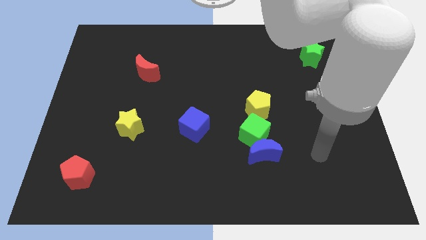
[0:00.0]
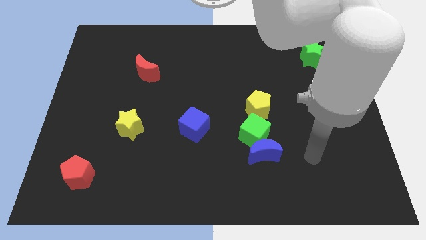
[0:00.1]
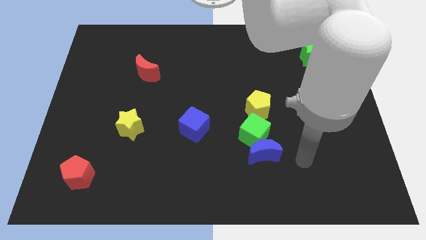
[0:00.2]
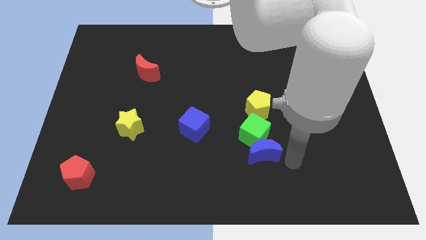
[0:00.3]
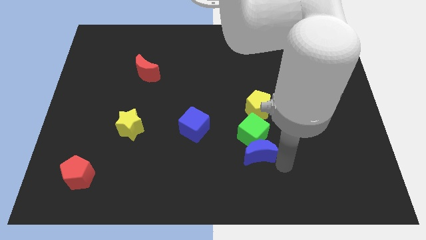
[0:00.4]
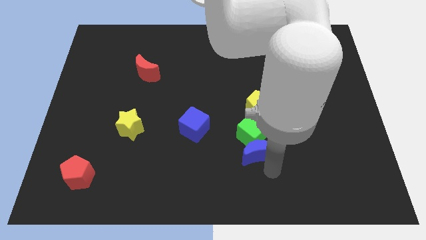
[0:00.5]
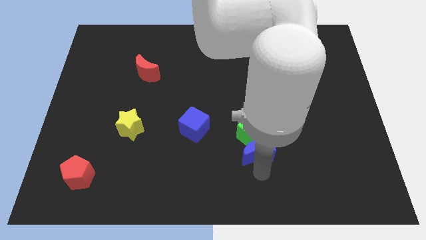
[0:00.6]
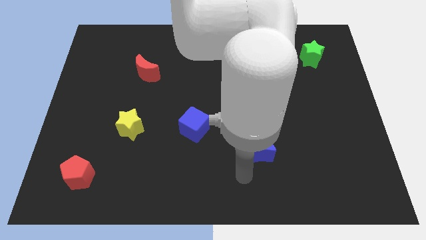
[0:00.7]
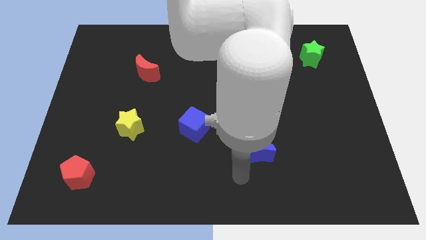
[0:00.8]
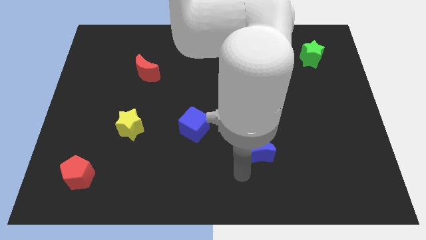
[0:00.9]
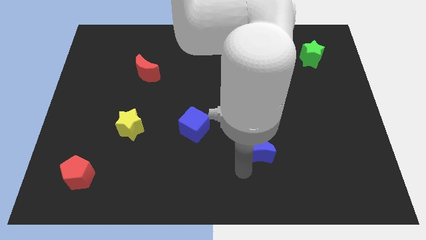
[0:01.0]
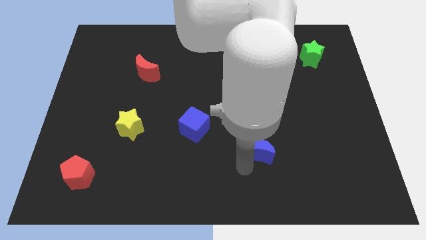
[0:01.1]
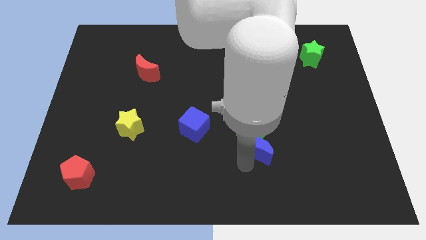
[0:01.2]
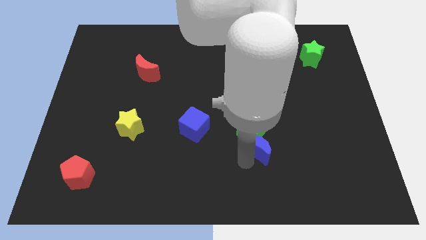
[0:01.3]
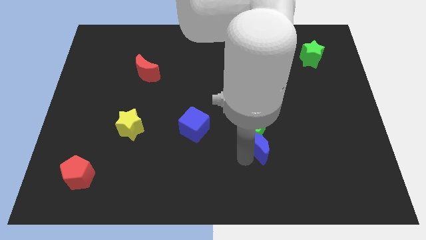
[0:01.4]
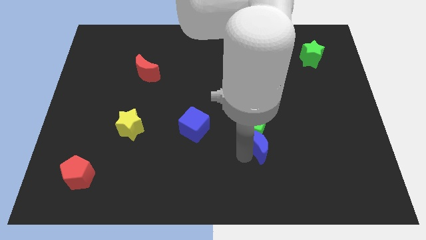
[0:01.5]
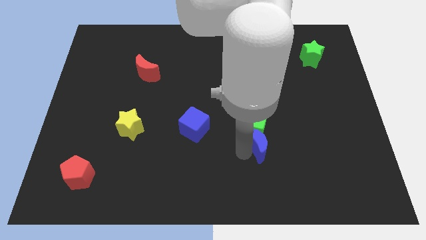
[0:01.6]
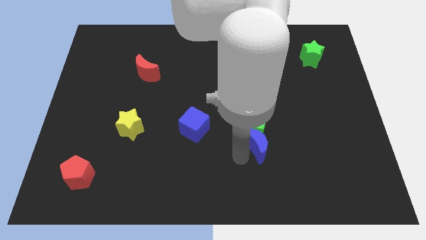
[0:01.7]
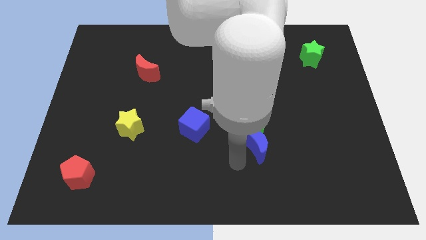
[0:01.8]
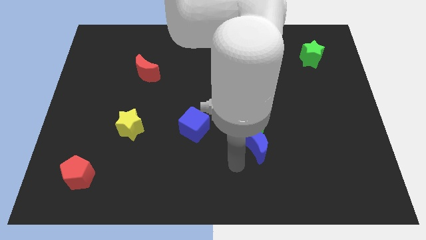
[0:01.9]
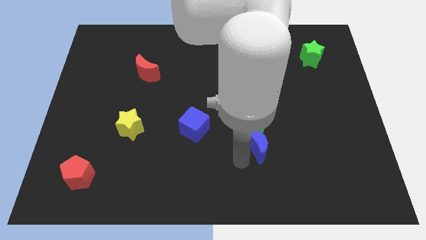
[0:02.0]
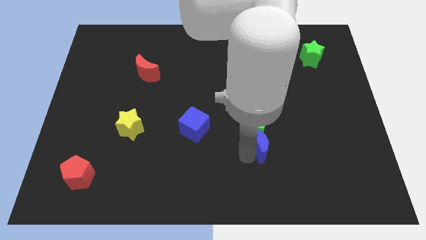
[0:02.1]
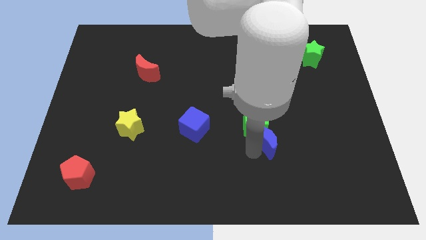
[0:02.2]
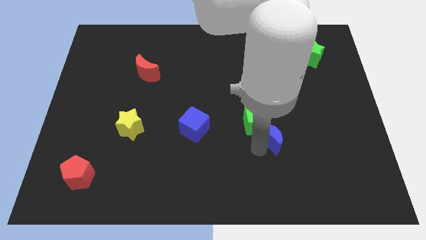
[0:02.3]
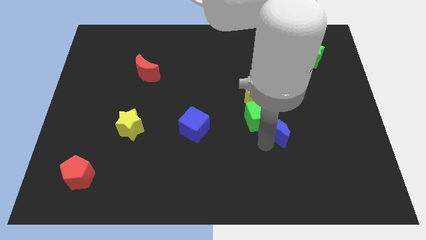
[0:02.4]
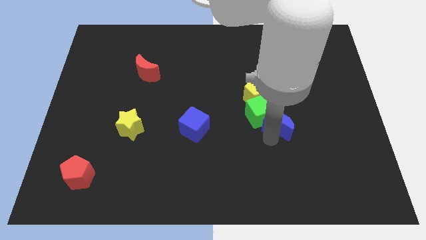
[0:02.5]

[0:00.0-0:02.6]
move the blue moon up and right somewhat

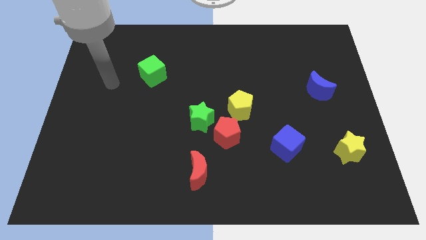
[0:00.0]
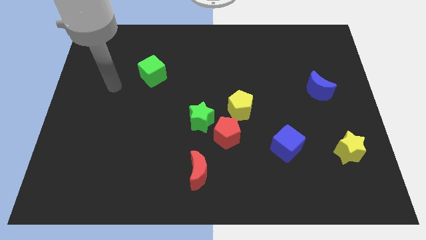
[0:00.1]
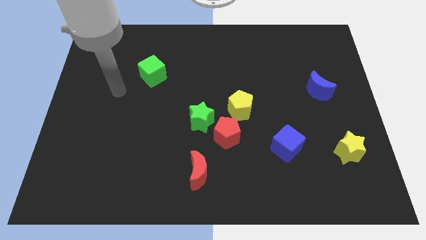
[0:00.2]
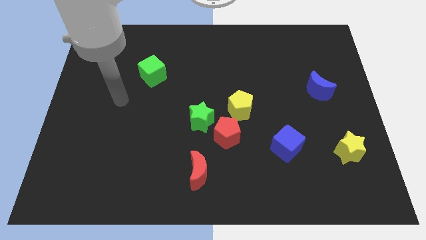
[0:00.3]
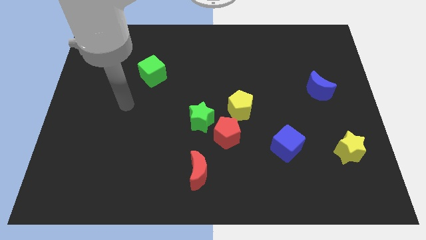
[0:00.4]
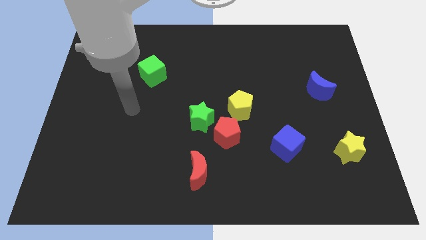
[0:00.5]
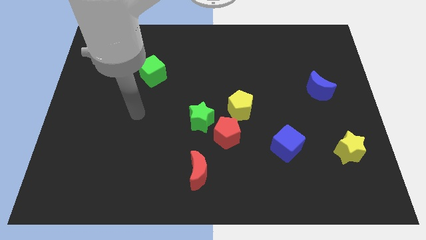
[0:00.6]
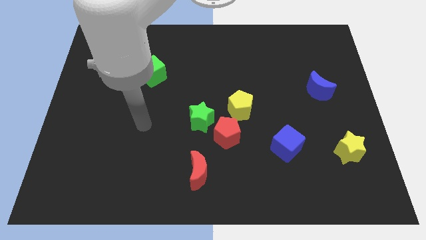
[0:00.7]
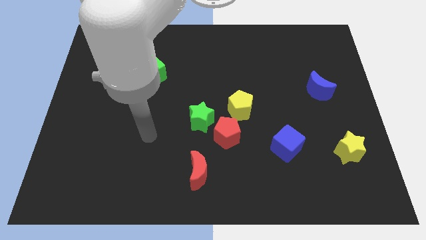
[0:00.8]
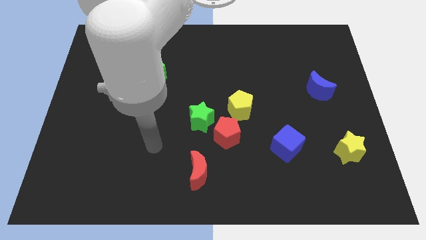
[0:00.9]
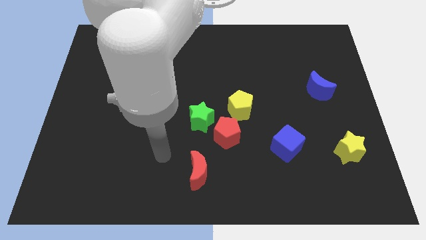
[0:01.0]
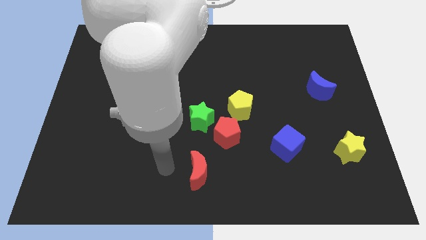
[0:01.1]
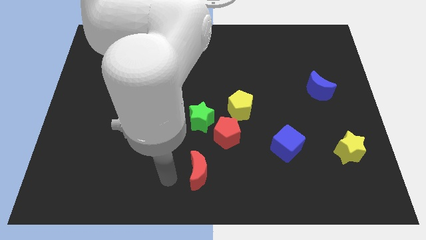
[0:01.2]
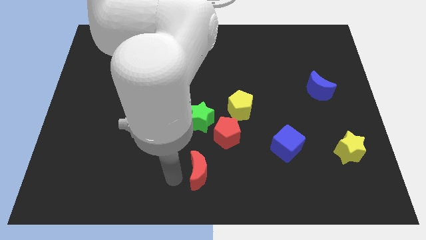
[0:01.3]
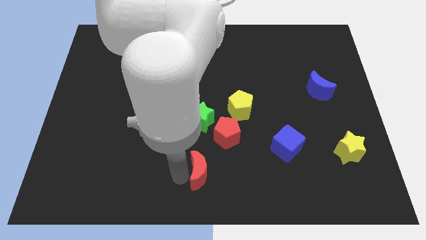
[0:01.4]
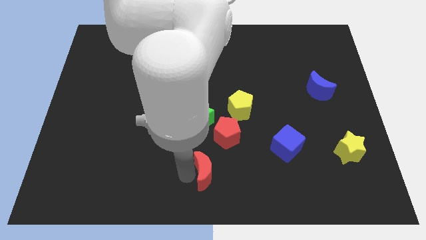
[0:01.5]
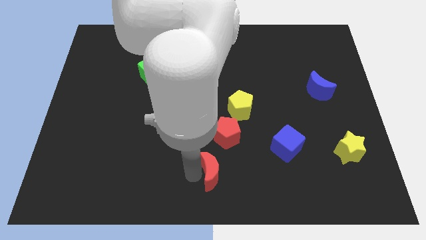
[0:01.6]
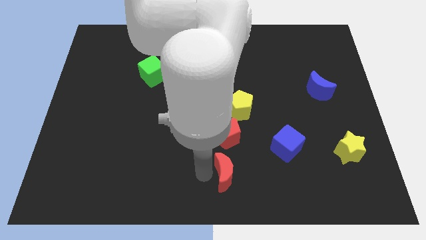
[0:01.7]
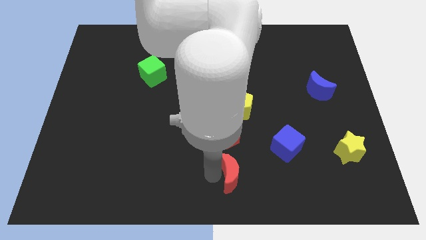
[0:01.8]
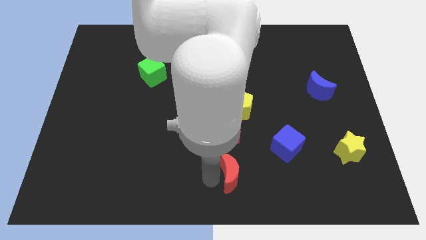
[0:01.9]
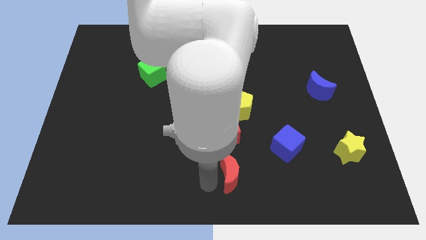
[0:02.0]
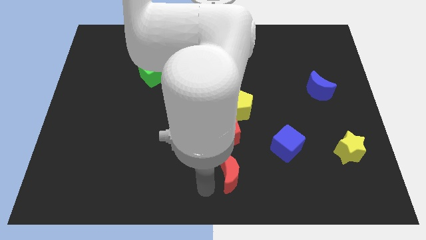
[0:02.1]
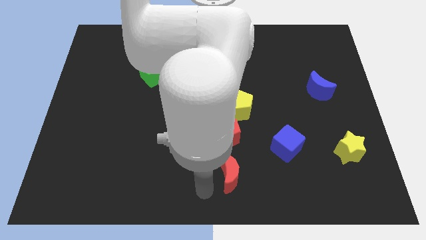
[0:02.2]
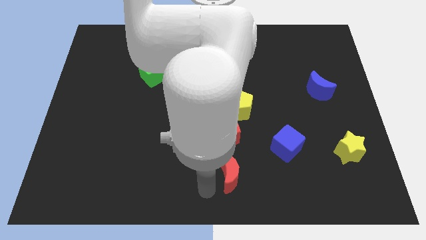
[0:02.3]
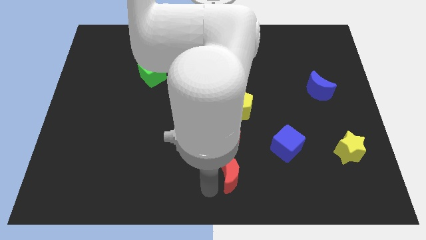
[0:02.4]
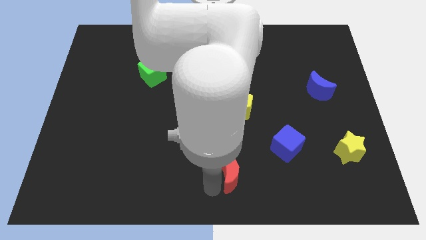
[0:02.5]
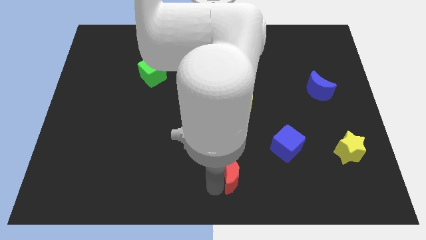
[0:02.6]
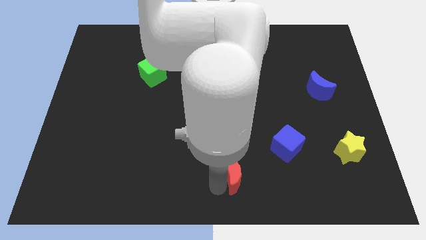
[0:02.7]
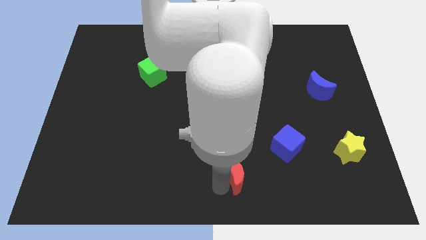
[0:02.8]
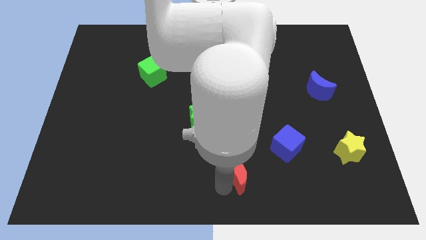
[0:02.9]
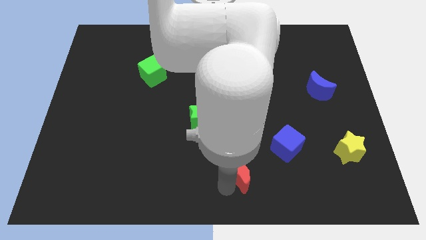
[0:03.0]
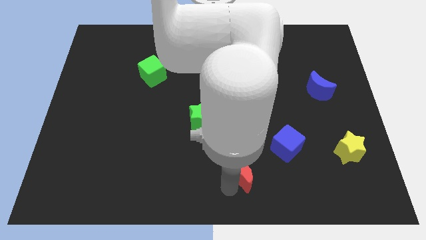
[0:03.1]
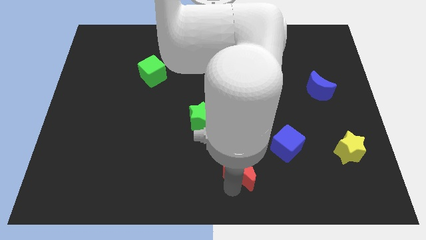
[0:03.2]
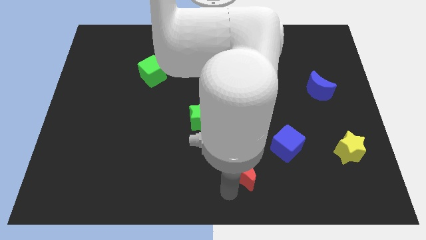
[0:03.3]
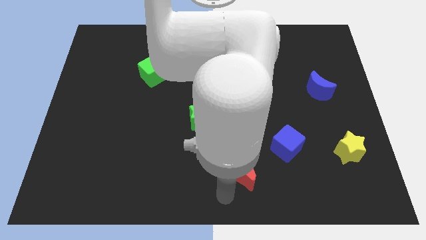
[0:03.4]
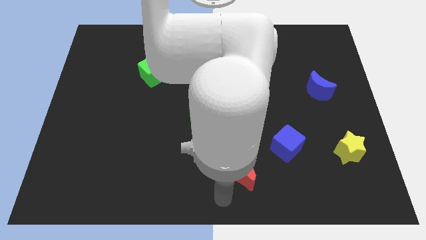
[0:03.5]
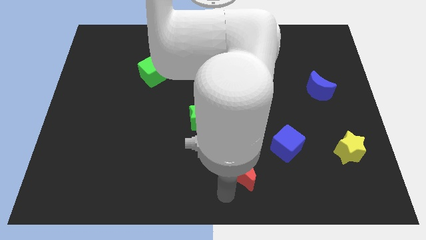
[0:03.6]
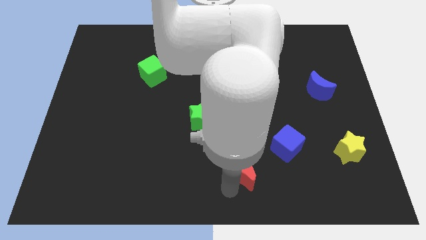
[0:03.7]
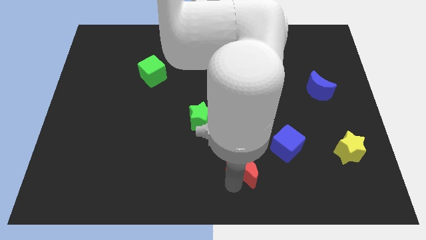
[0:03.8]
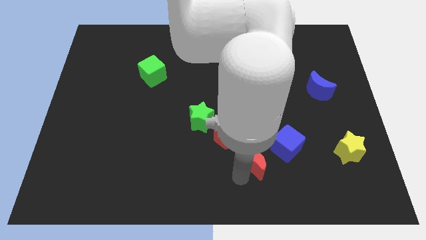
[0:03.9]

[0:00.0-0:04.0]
slide the red moon a little bit upwards and to the right

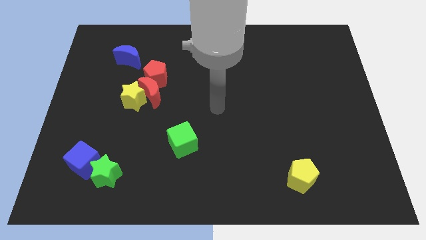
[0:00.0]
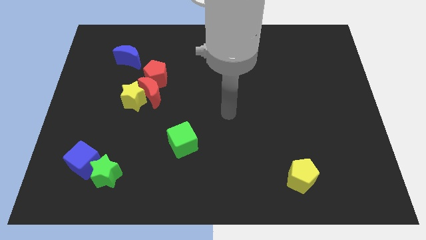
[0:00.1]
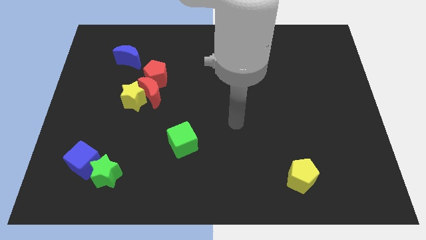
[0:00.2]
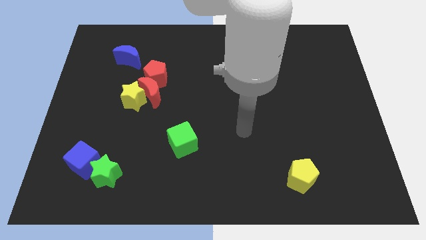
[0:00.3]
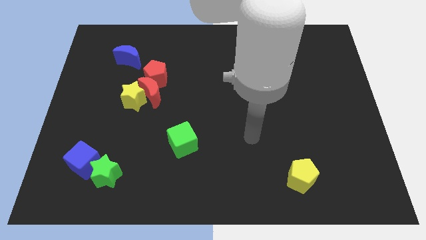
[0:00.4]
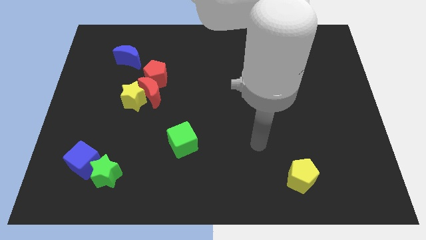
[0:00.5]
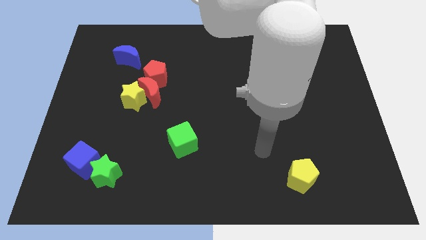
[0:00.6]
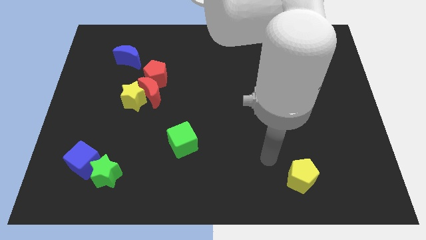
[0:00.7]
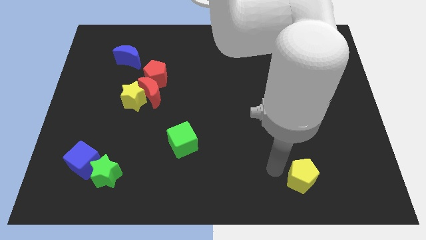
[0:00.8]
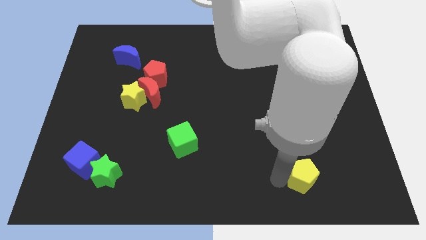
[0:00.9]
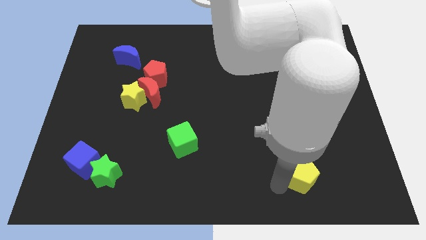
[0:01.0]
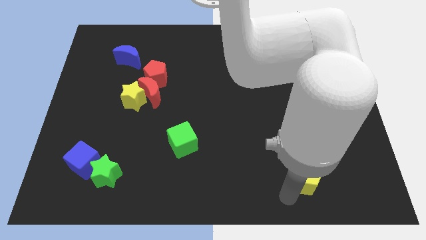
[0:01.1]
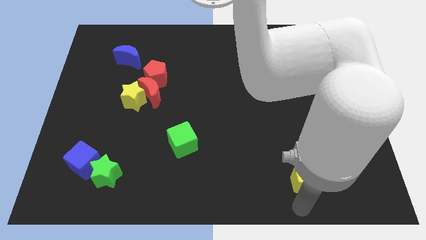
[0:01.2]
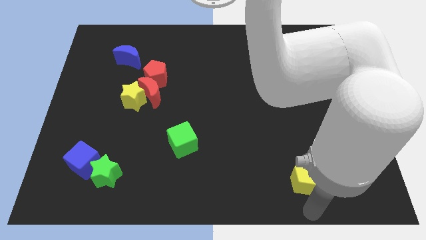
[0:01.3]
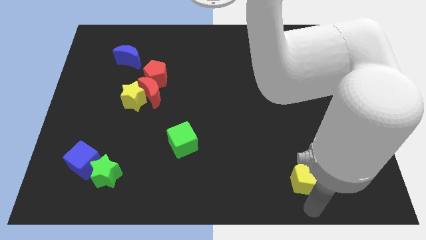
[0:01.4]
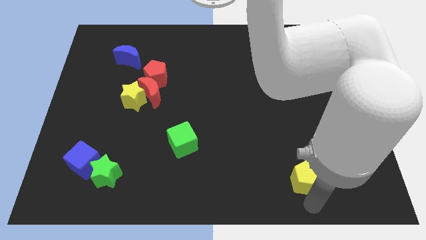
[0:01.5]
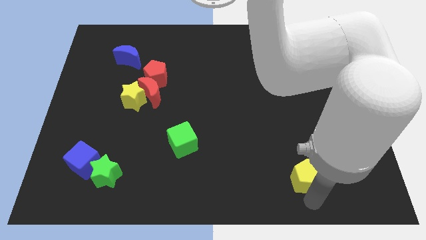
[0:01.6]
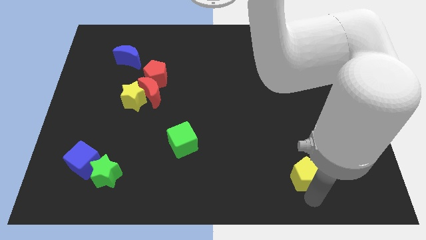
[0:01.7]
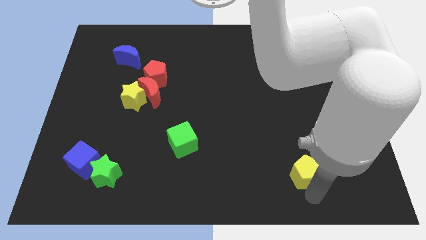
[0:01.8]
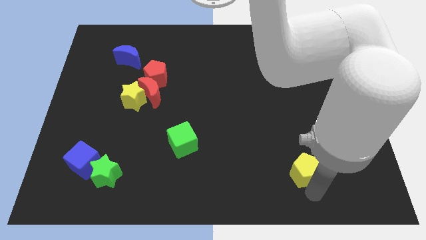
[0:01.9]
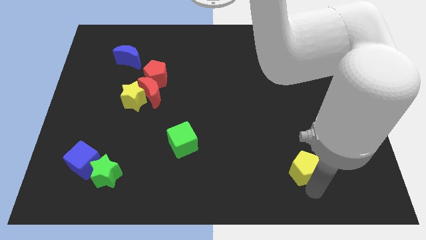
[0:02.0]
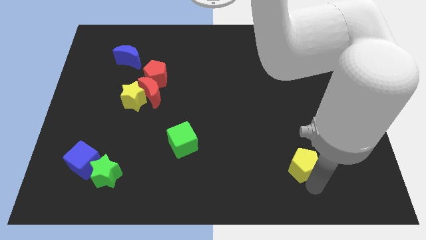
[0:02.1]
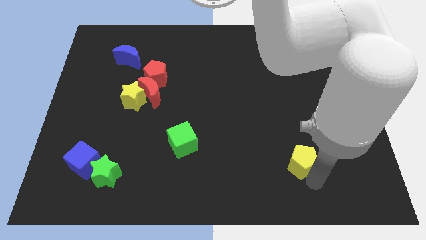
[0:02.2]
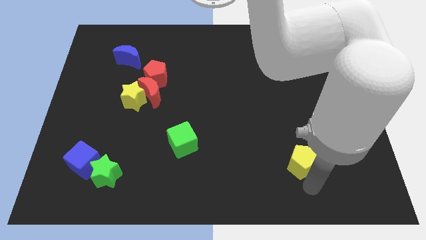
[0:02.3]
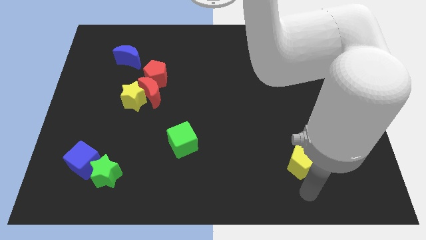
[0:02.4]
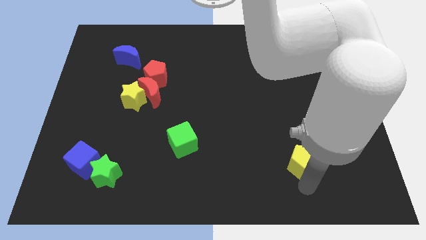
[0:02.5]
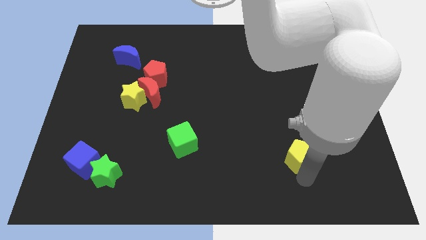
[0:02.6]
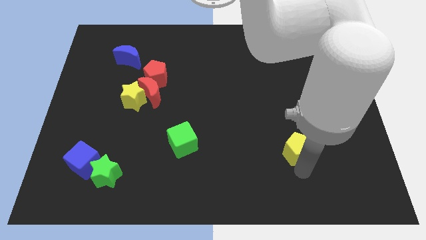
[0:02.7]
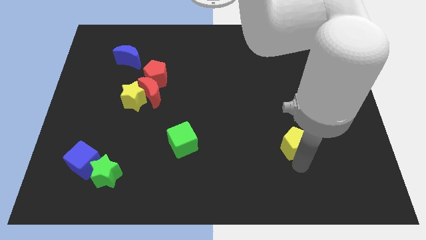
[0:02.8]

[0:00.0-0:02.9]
push the yellow pentagon a little bit up
